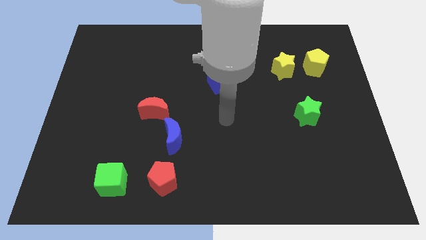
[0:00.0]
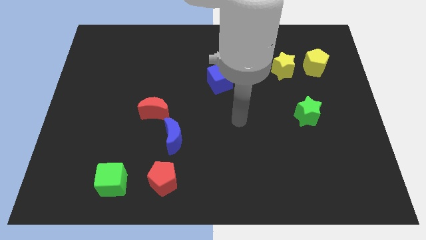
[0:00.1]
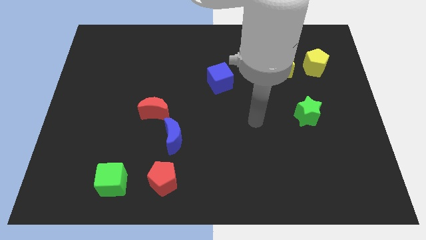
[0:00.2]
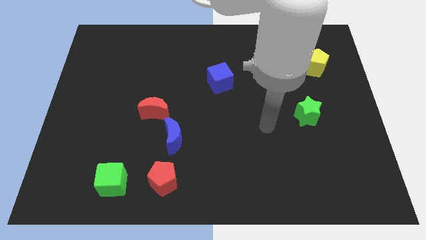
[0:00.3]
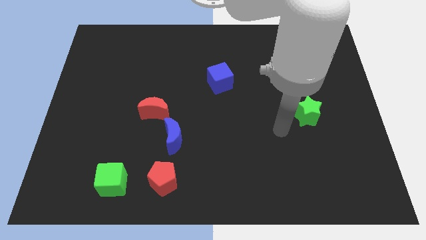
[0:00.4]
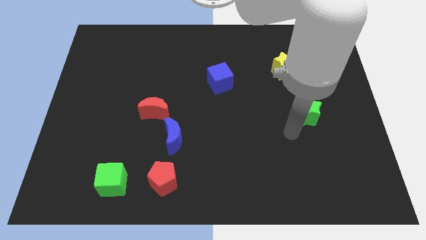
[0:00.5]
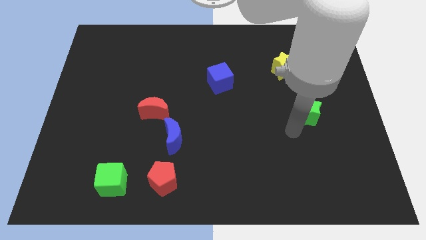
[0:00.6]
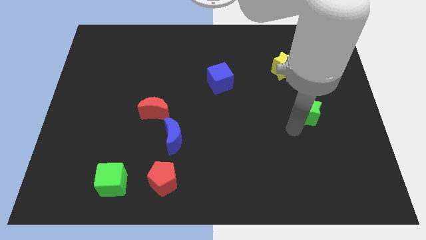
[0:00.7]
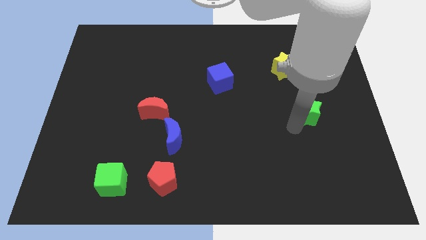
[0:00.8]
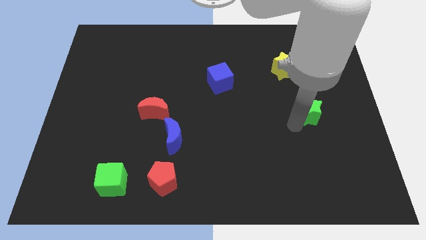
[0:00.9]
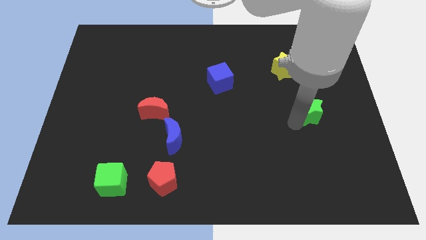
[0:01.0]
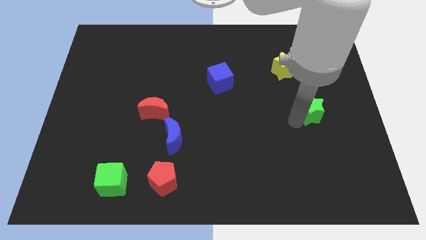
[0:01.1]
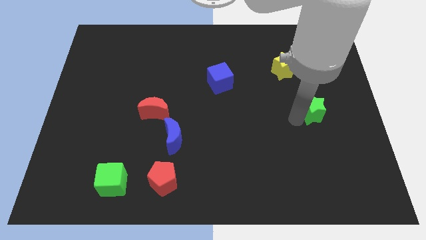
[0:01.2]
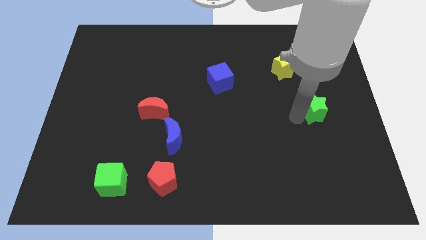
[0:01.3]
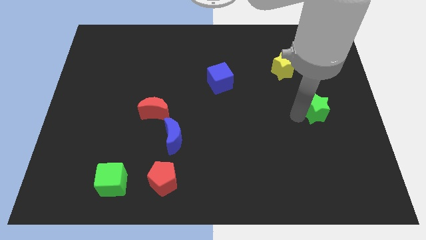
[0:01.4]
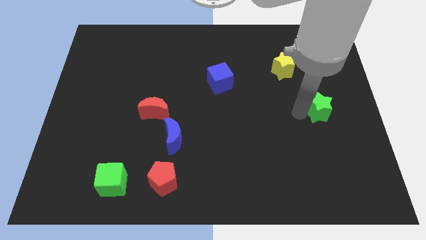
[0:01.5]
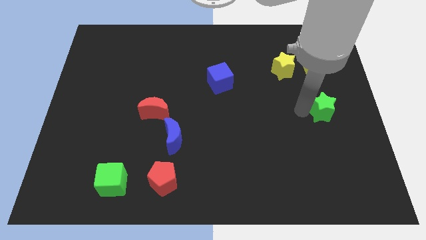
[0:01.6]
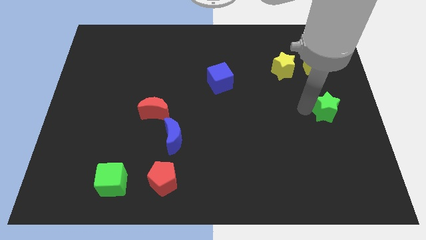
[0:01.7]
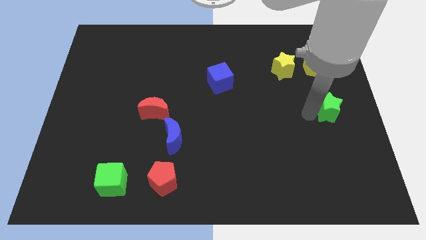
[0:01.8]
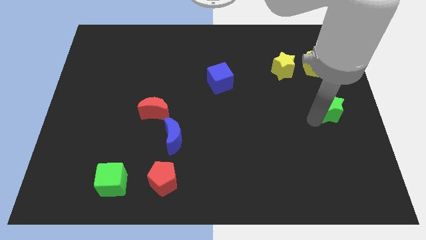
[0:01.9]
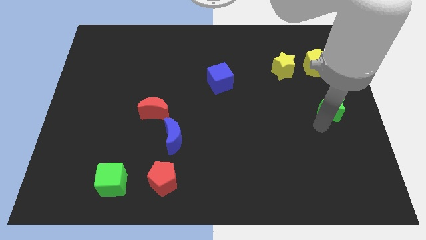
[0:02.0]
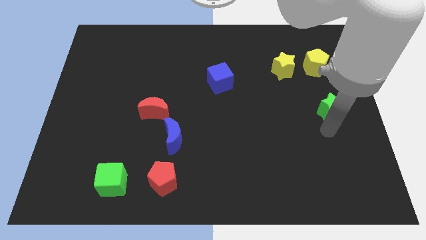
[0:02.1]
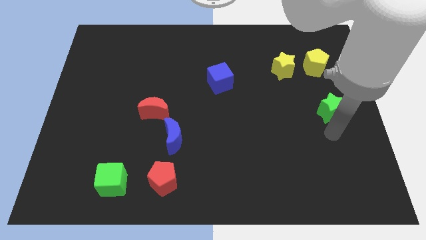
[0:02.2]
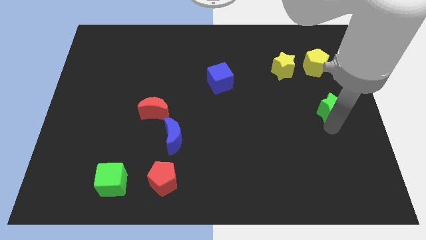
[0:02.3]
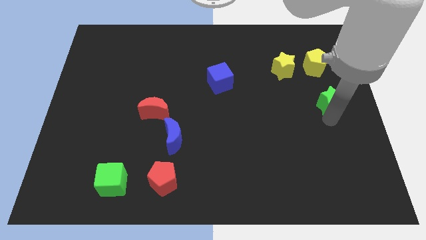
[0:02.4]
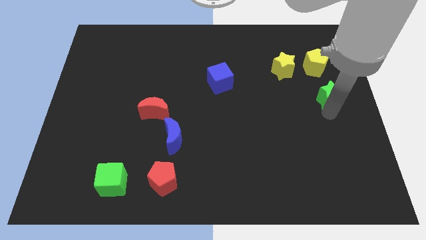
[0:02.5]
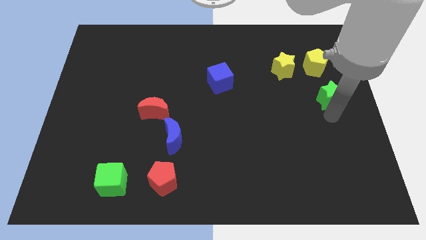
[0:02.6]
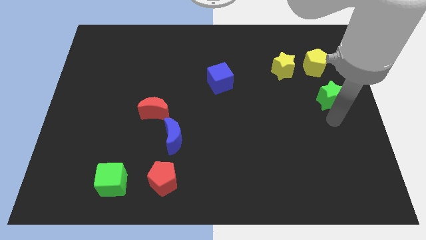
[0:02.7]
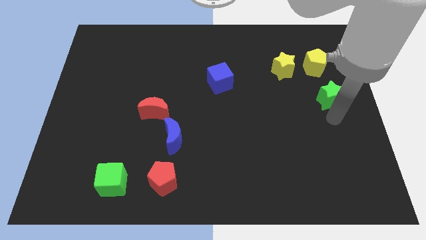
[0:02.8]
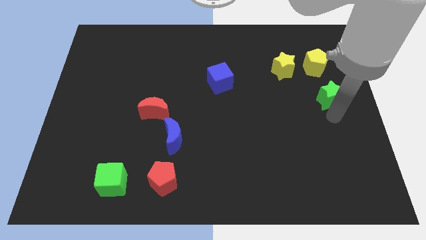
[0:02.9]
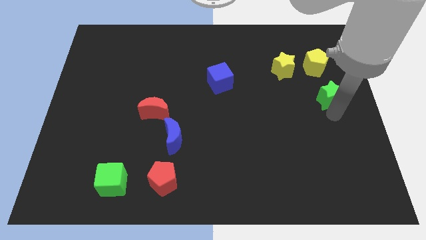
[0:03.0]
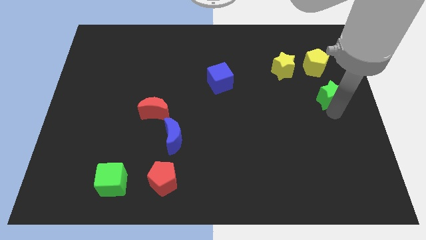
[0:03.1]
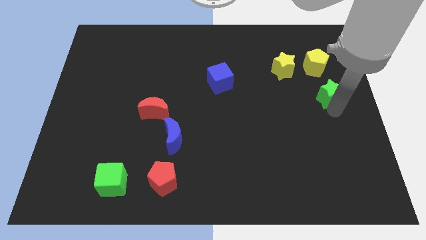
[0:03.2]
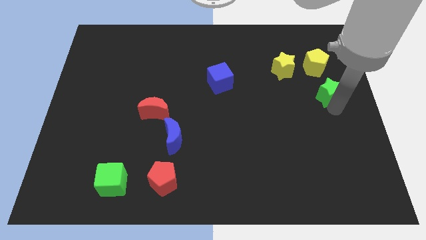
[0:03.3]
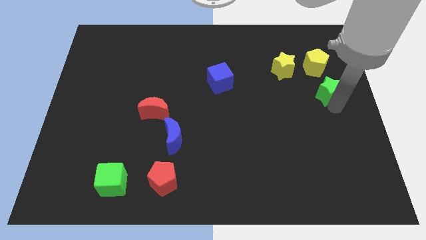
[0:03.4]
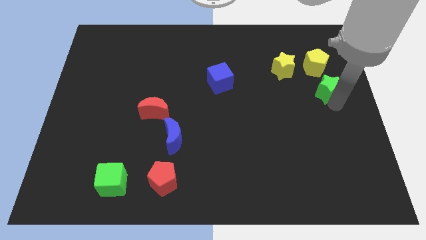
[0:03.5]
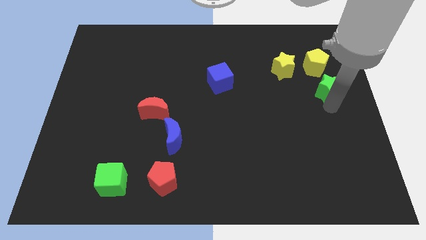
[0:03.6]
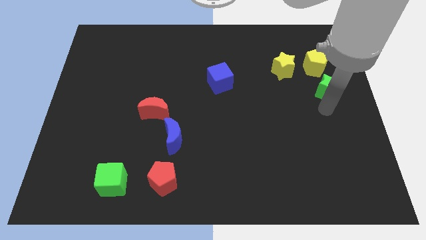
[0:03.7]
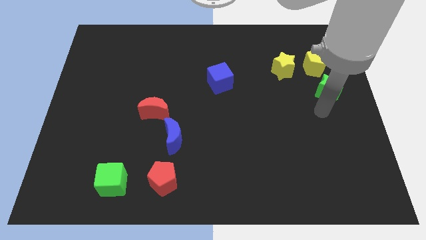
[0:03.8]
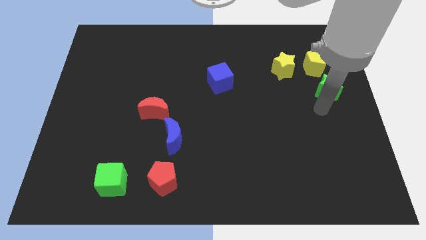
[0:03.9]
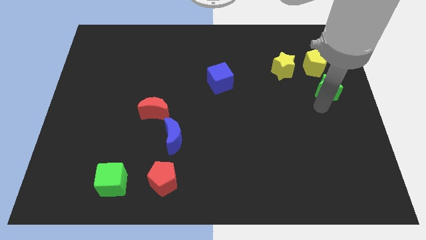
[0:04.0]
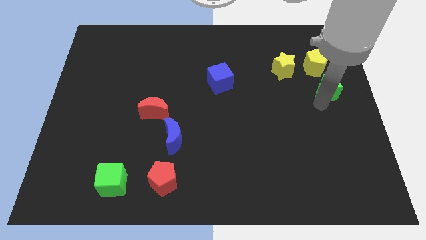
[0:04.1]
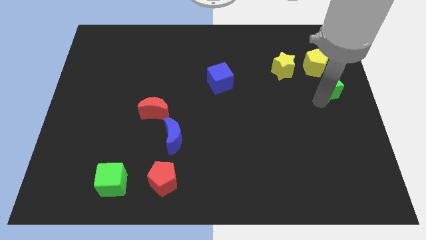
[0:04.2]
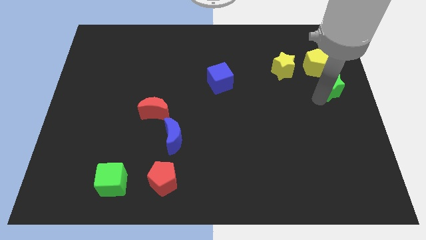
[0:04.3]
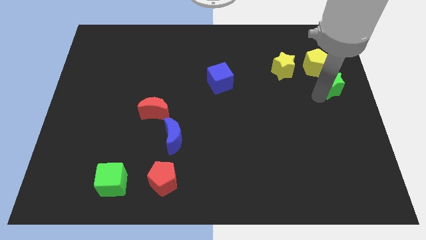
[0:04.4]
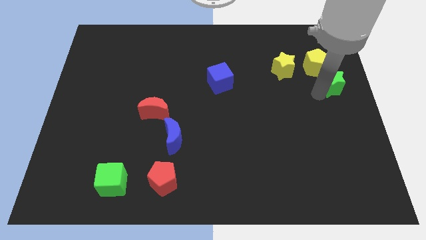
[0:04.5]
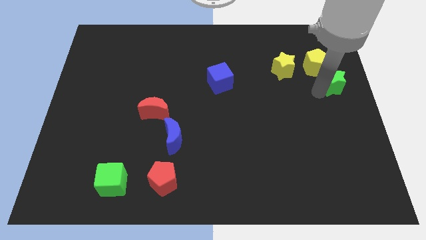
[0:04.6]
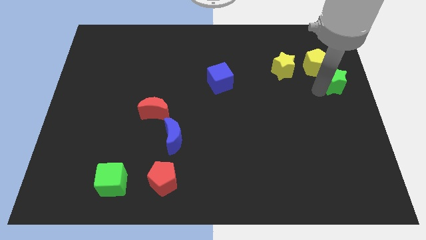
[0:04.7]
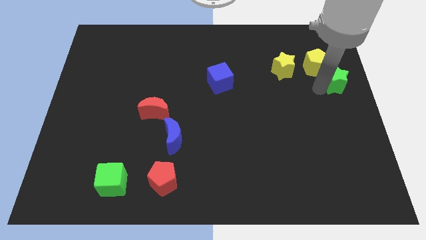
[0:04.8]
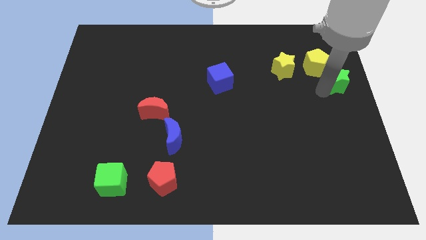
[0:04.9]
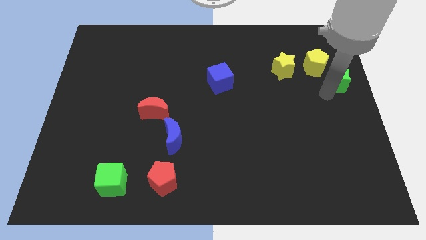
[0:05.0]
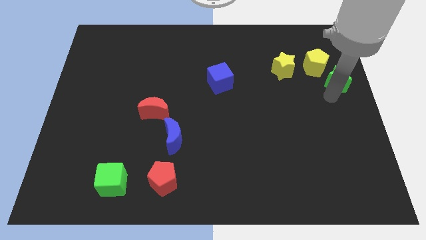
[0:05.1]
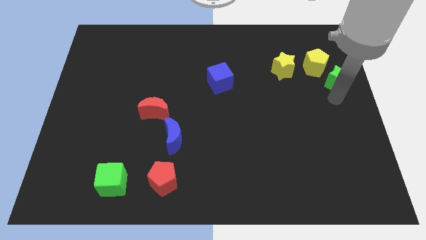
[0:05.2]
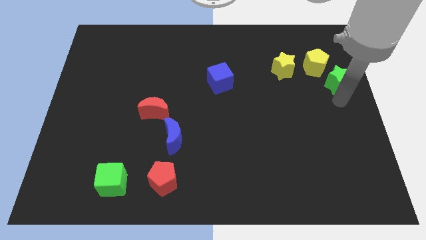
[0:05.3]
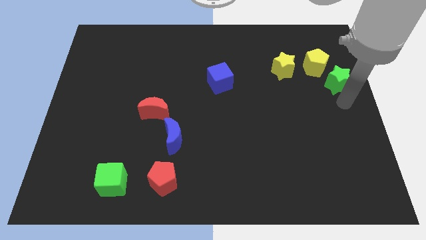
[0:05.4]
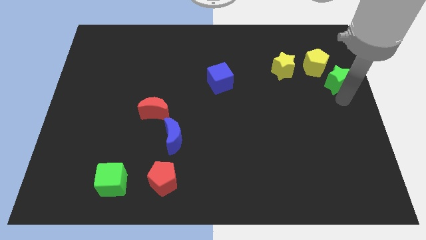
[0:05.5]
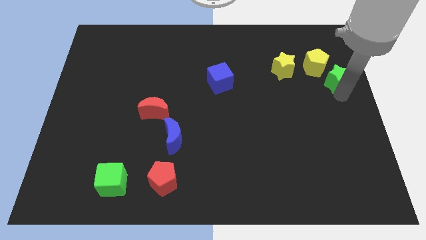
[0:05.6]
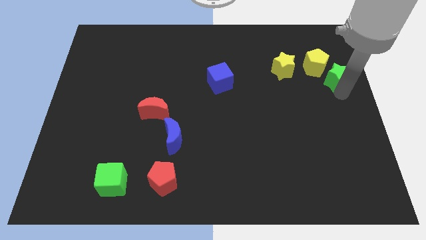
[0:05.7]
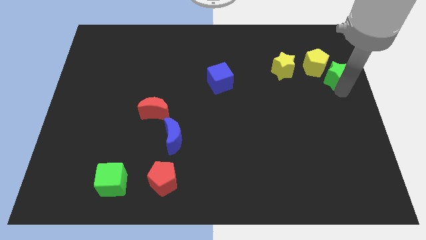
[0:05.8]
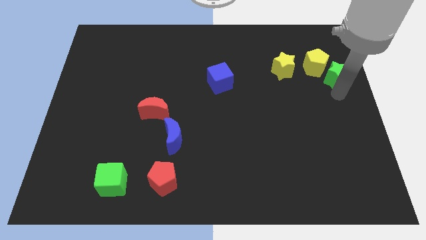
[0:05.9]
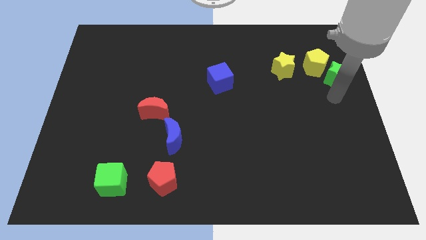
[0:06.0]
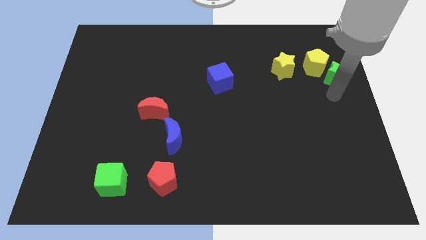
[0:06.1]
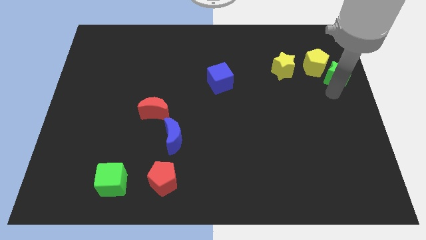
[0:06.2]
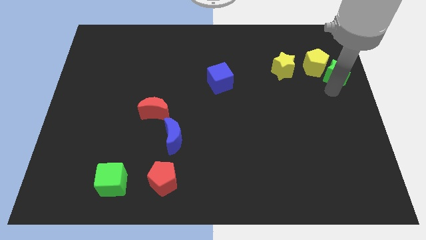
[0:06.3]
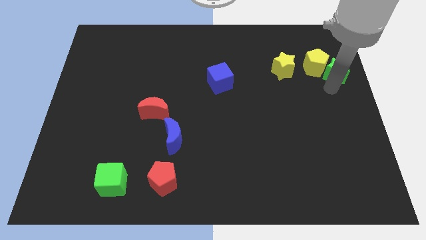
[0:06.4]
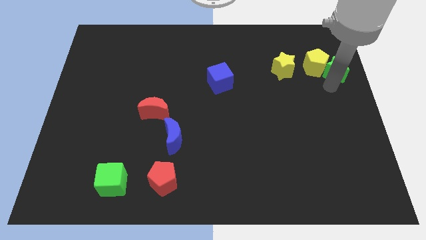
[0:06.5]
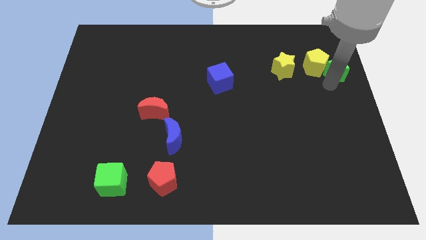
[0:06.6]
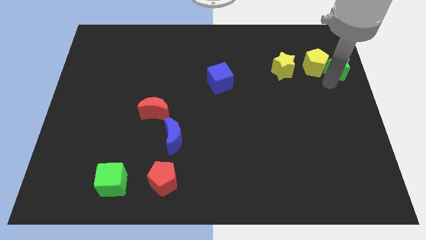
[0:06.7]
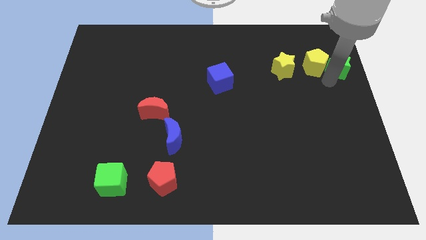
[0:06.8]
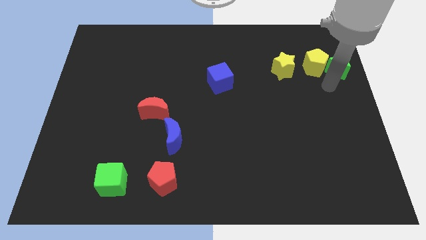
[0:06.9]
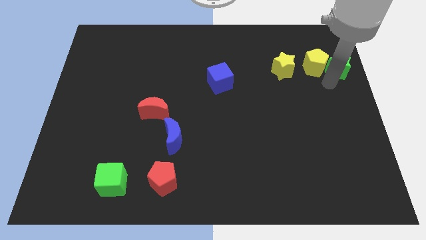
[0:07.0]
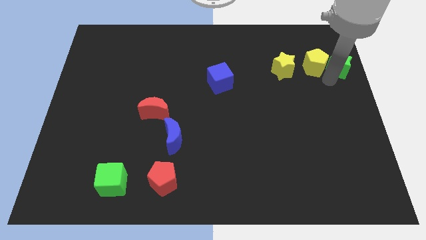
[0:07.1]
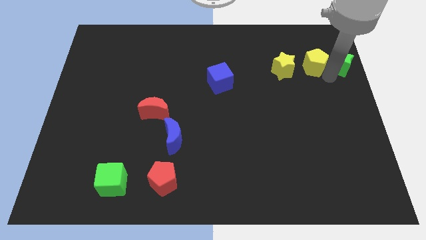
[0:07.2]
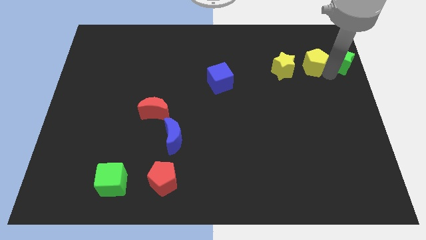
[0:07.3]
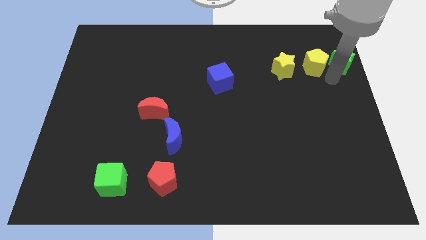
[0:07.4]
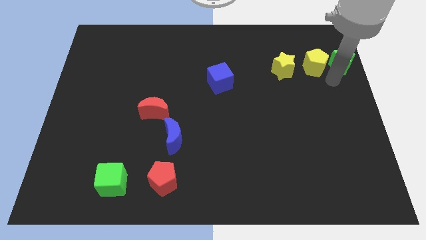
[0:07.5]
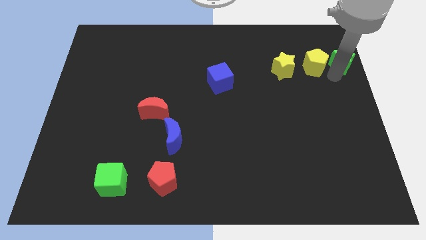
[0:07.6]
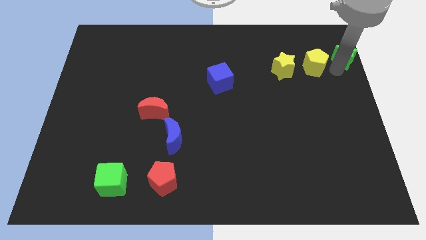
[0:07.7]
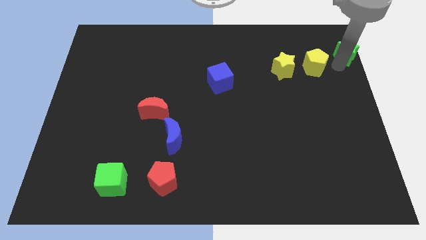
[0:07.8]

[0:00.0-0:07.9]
put the green star to the top right of the board
